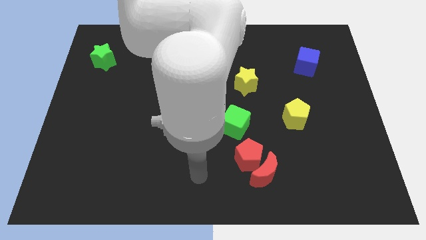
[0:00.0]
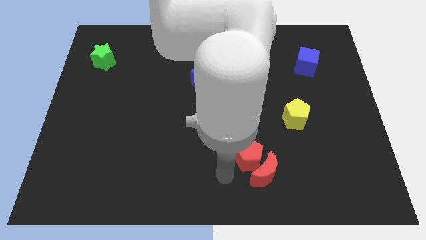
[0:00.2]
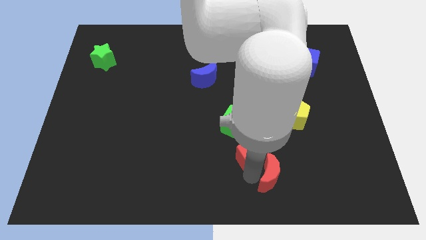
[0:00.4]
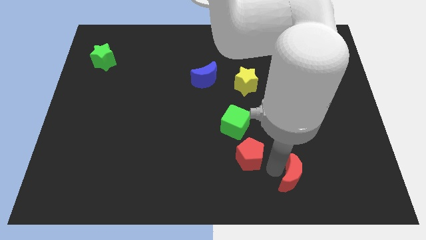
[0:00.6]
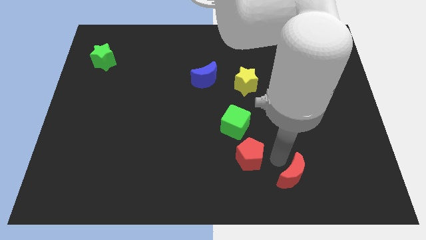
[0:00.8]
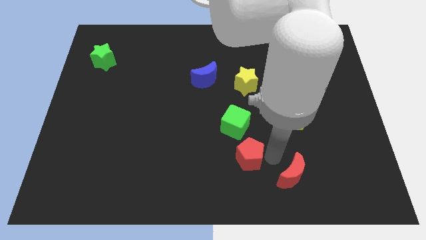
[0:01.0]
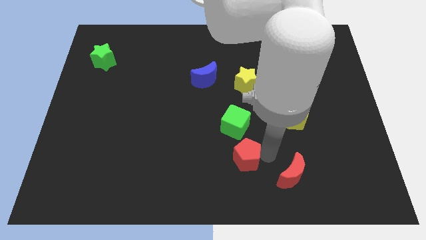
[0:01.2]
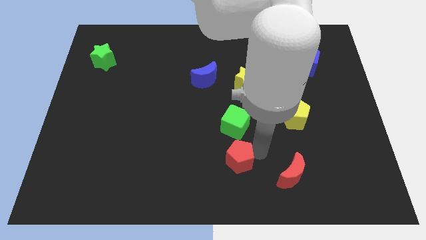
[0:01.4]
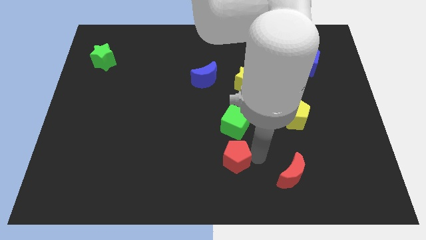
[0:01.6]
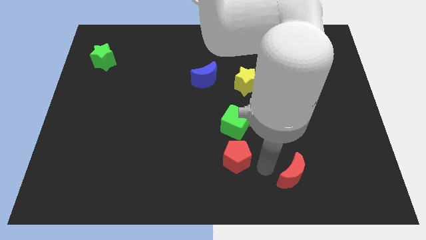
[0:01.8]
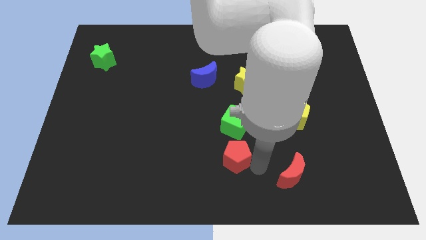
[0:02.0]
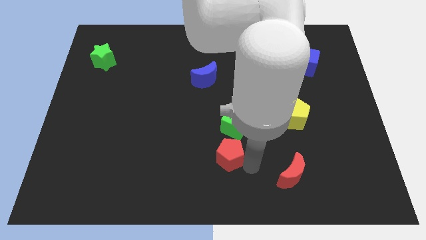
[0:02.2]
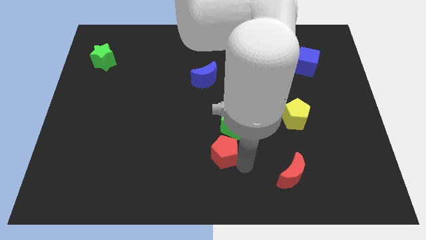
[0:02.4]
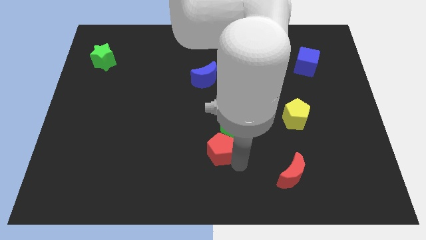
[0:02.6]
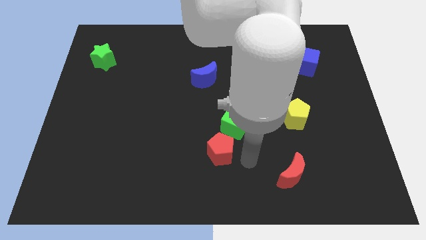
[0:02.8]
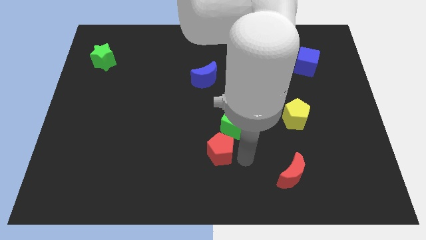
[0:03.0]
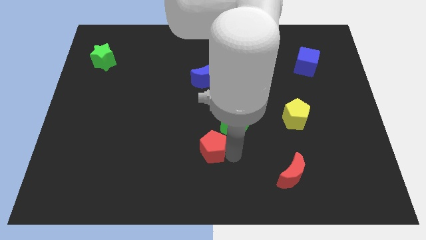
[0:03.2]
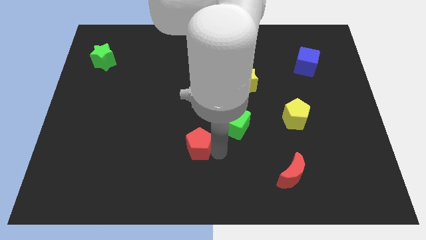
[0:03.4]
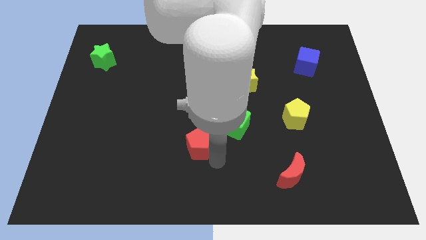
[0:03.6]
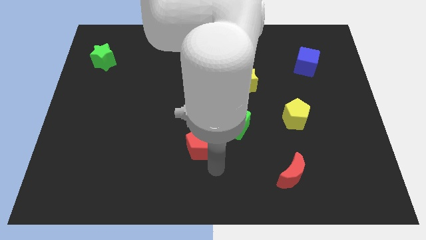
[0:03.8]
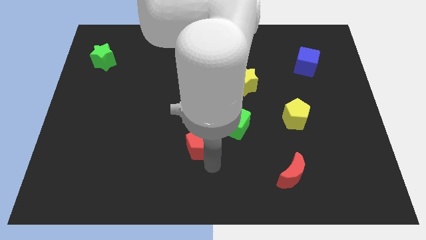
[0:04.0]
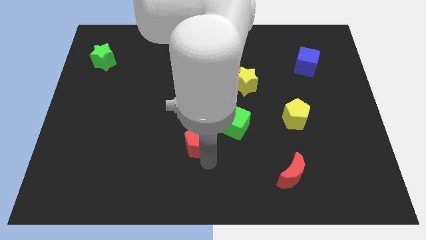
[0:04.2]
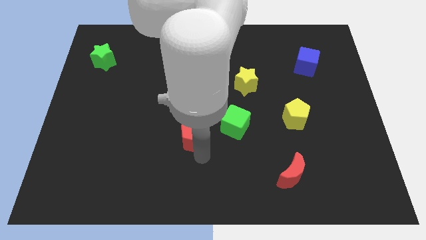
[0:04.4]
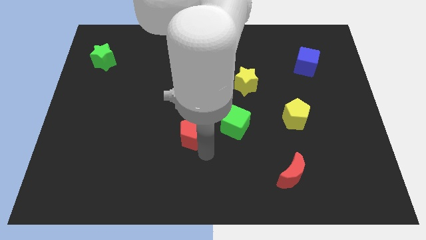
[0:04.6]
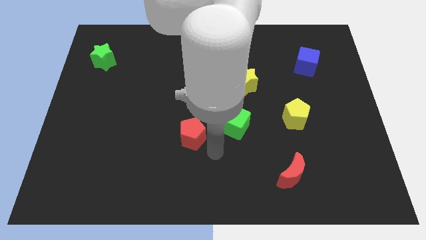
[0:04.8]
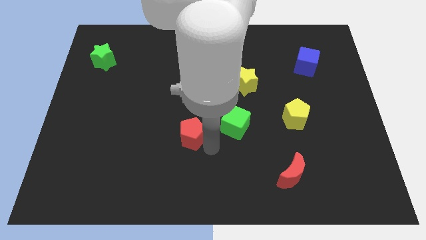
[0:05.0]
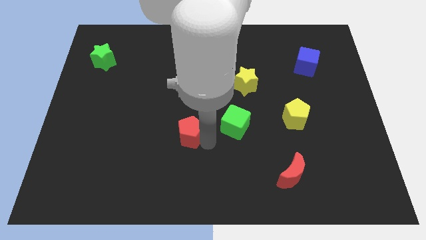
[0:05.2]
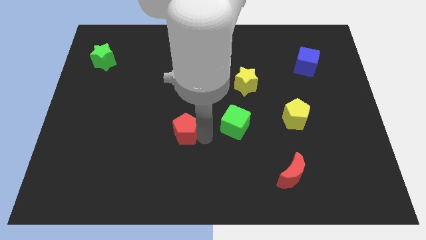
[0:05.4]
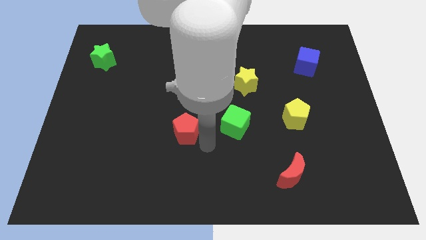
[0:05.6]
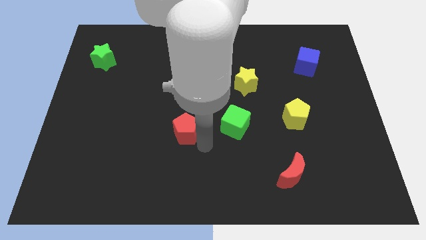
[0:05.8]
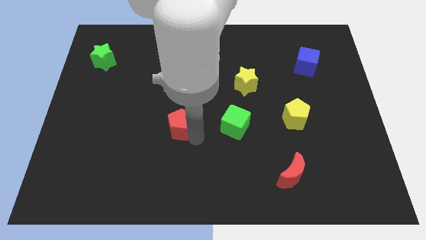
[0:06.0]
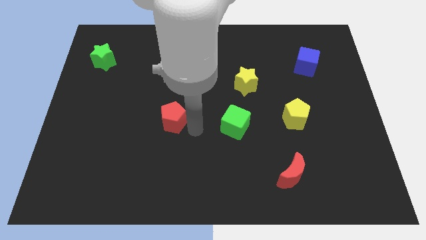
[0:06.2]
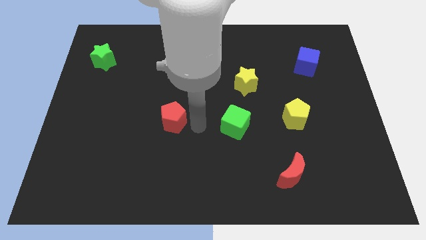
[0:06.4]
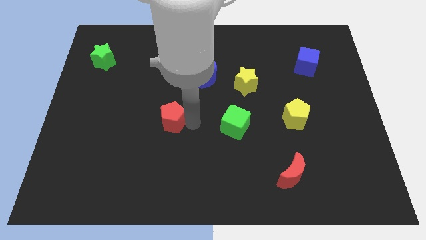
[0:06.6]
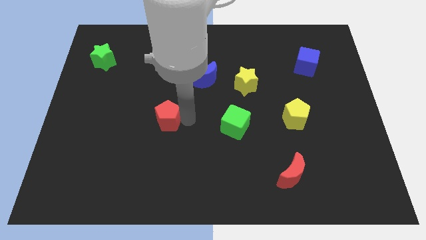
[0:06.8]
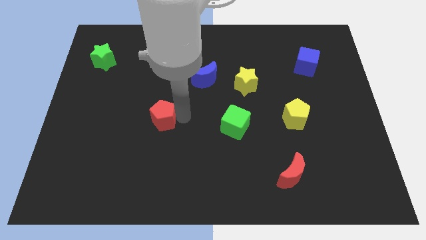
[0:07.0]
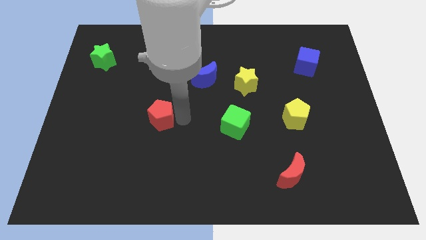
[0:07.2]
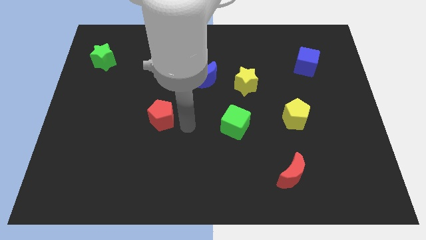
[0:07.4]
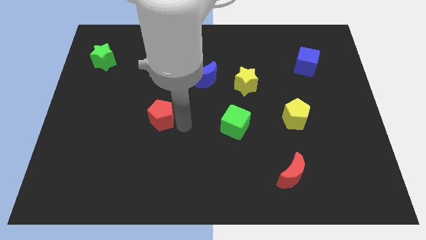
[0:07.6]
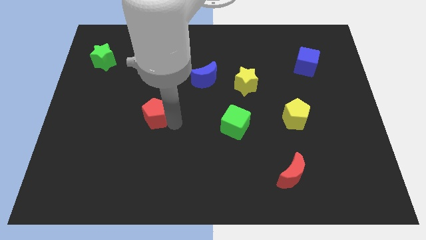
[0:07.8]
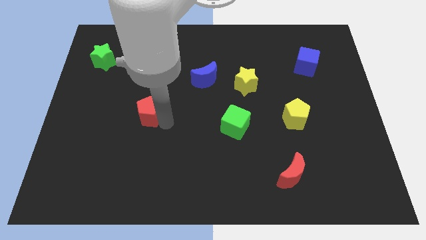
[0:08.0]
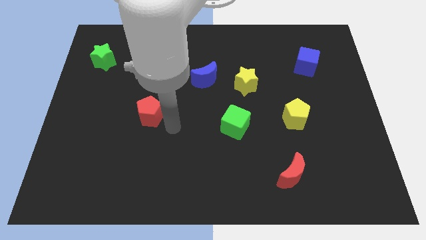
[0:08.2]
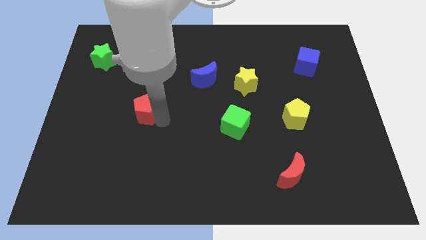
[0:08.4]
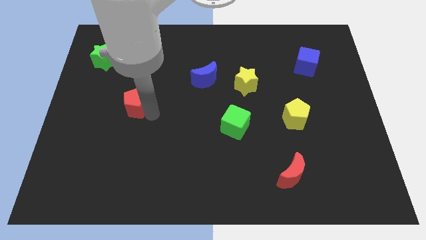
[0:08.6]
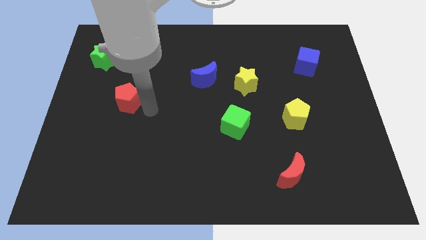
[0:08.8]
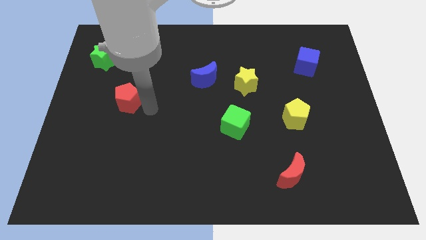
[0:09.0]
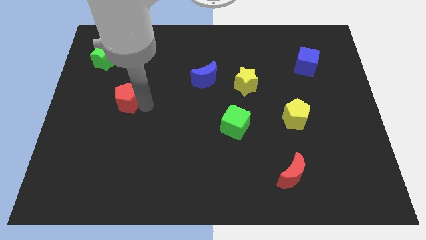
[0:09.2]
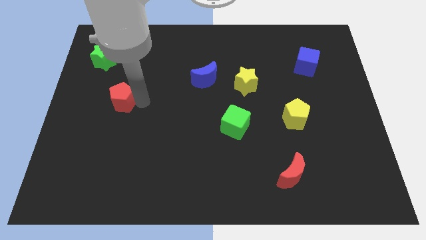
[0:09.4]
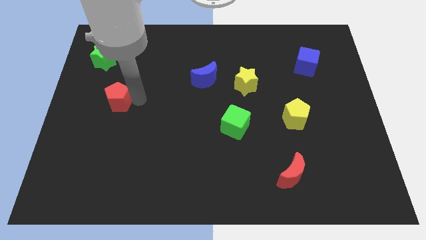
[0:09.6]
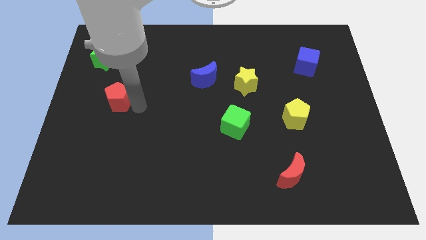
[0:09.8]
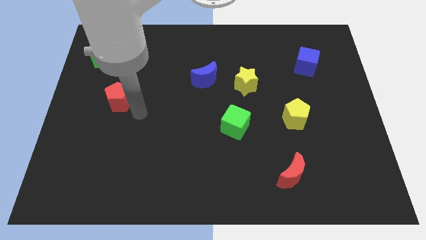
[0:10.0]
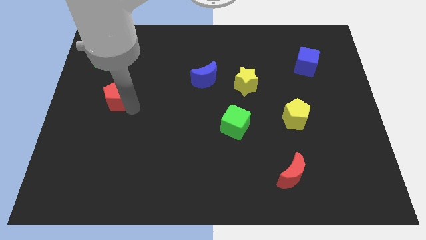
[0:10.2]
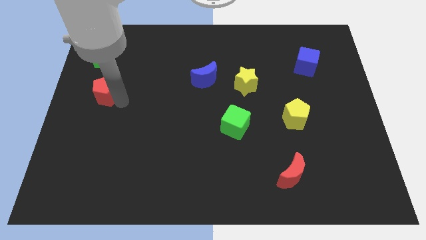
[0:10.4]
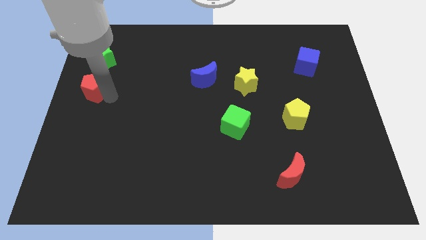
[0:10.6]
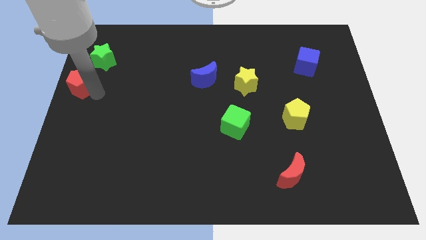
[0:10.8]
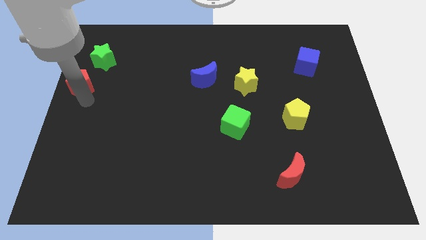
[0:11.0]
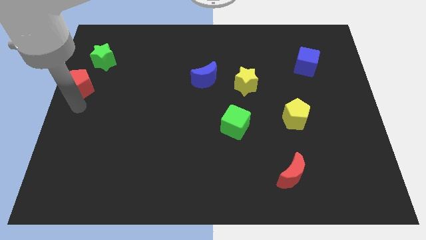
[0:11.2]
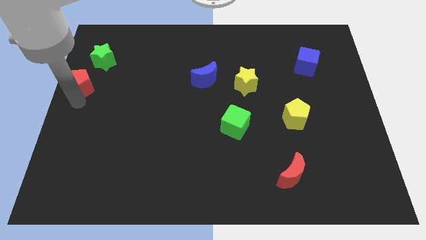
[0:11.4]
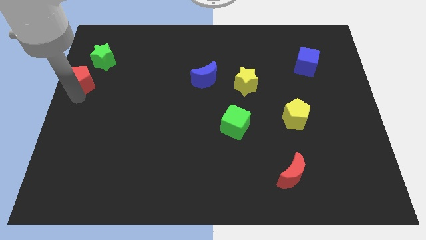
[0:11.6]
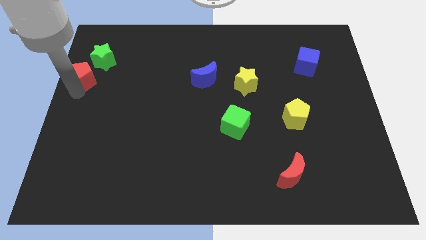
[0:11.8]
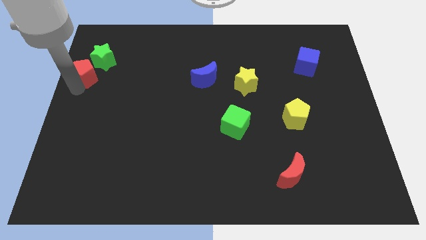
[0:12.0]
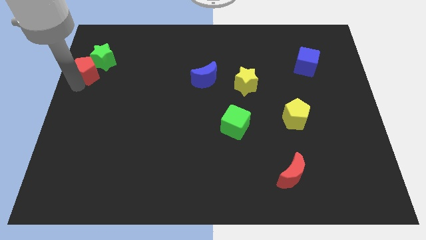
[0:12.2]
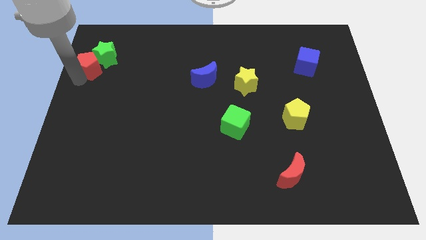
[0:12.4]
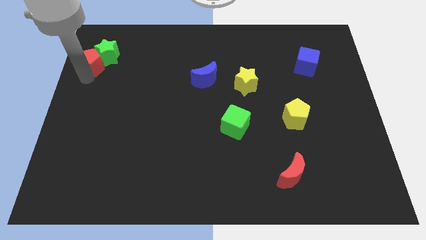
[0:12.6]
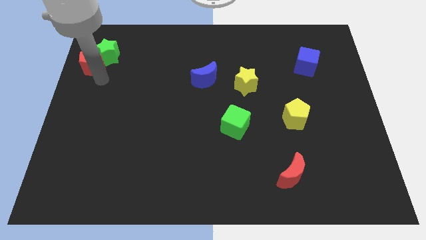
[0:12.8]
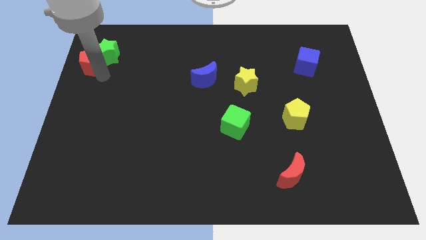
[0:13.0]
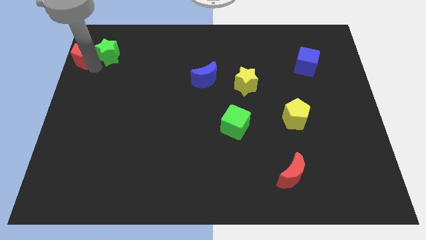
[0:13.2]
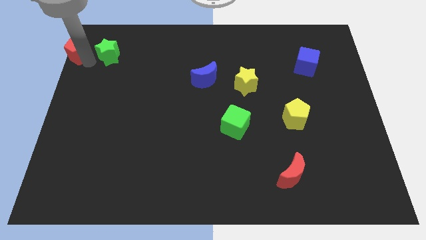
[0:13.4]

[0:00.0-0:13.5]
move the red pentagon to the top left corner
